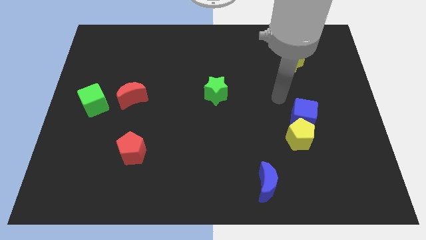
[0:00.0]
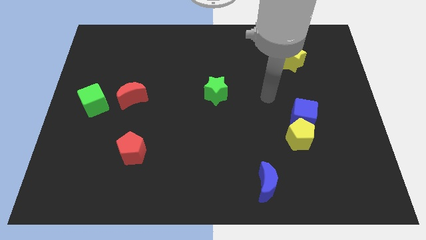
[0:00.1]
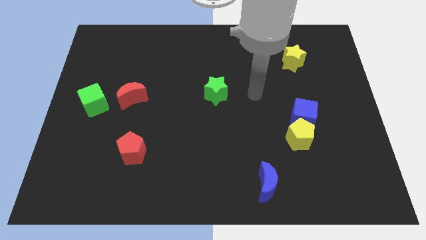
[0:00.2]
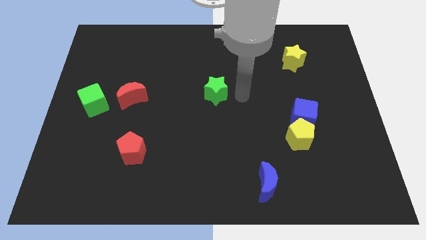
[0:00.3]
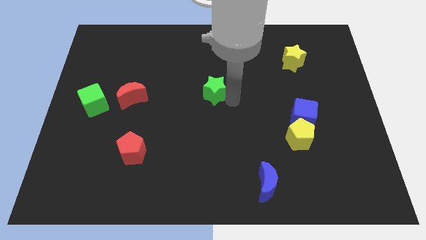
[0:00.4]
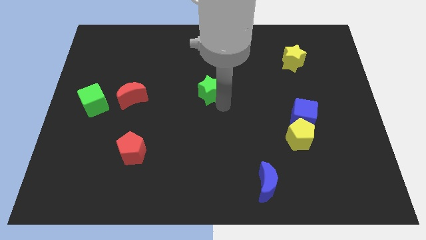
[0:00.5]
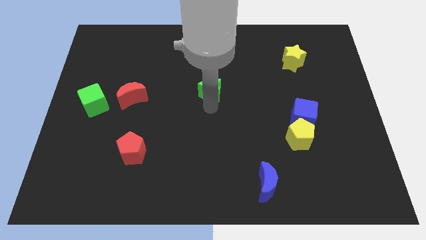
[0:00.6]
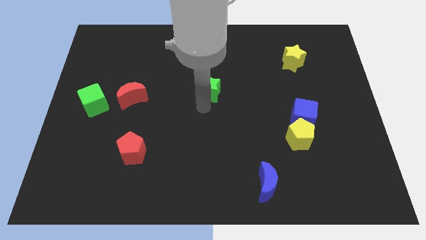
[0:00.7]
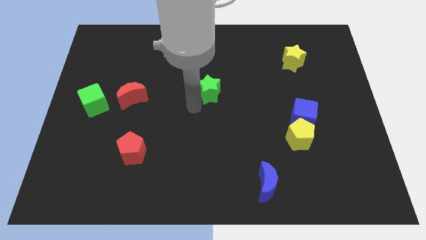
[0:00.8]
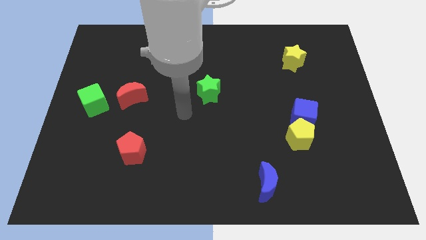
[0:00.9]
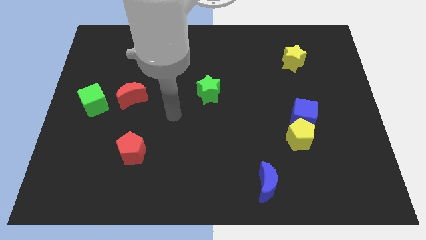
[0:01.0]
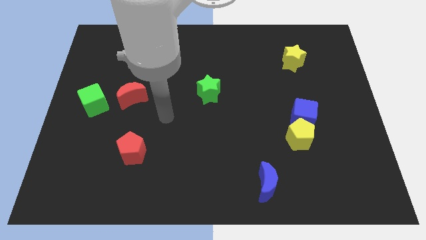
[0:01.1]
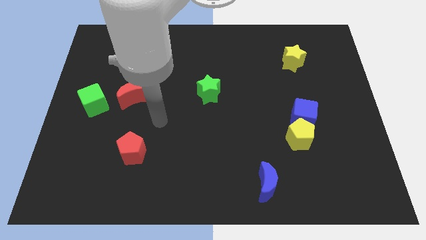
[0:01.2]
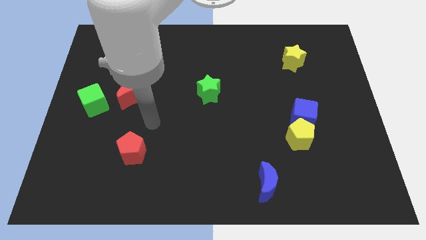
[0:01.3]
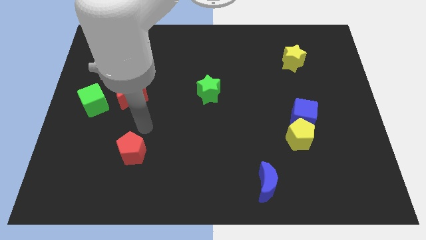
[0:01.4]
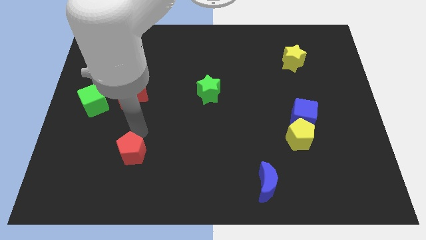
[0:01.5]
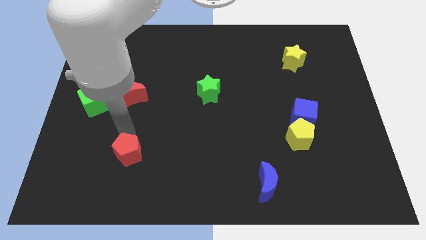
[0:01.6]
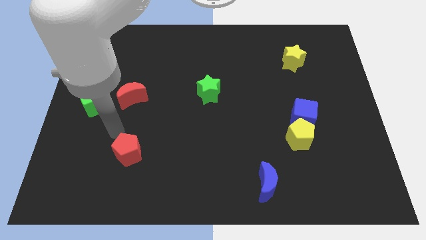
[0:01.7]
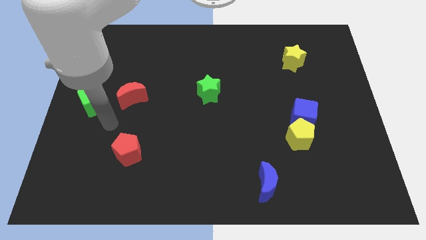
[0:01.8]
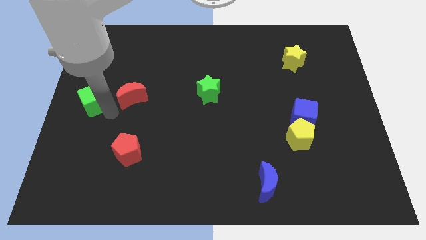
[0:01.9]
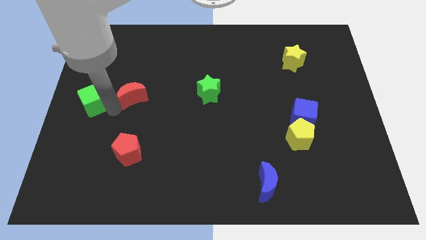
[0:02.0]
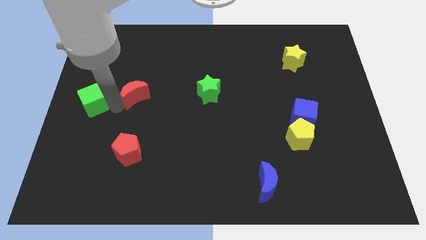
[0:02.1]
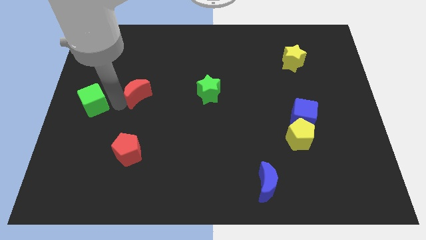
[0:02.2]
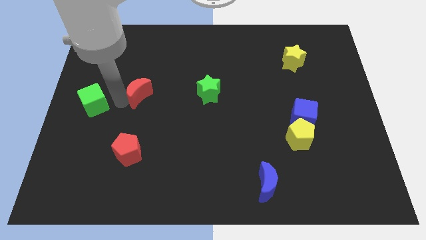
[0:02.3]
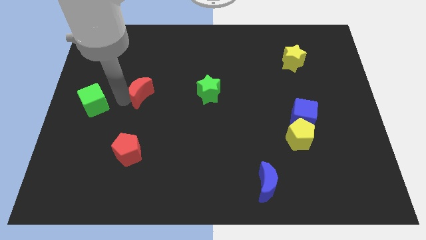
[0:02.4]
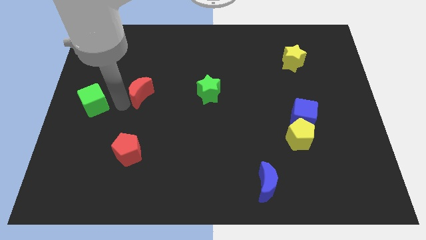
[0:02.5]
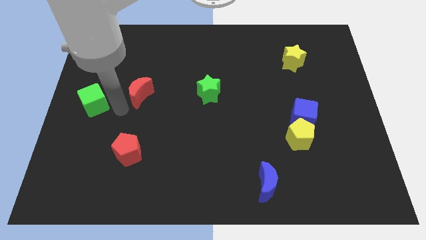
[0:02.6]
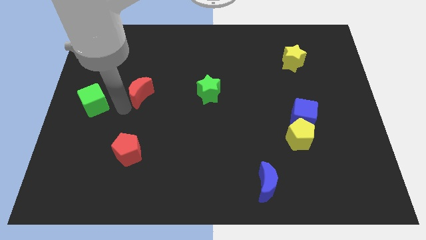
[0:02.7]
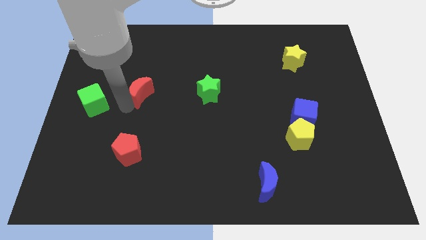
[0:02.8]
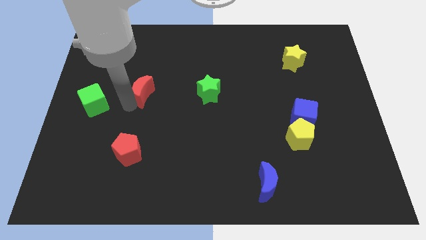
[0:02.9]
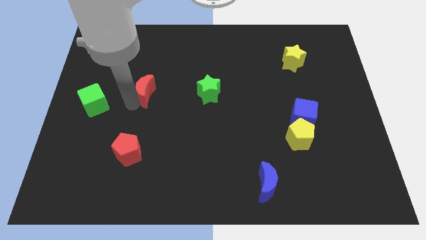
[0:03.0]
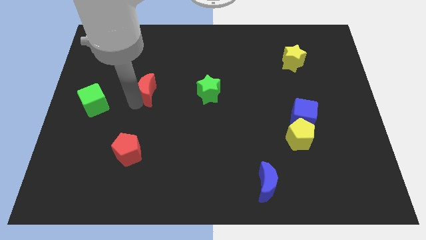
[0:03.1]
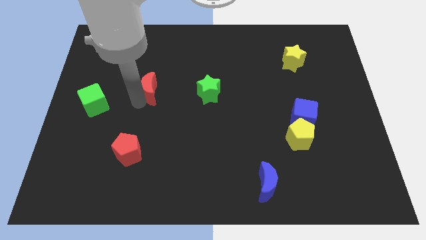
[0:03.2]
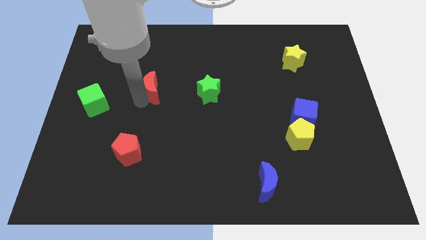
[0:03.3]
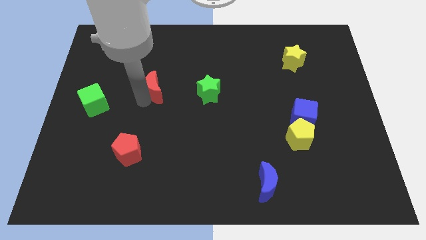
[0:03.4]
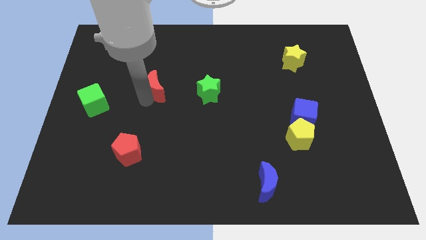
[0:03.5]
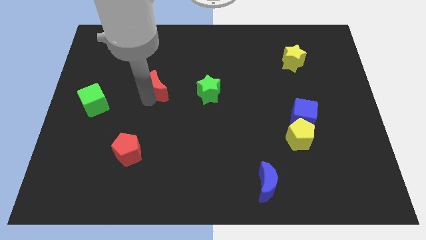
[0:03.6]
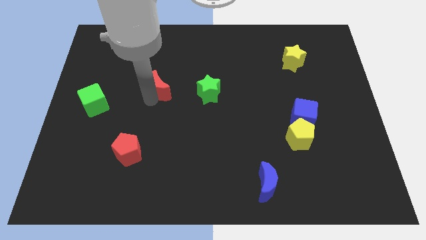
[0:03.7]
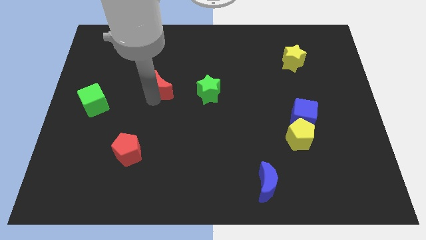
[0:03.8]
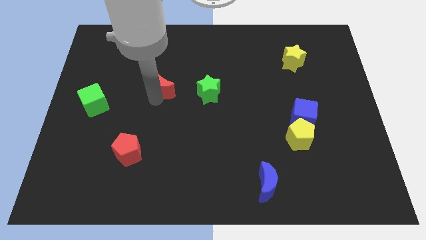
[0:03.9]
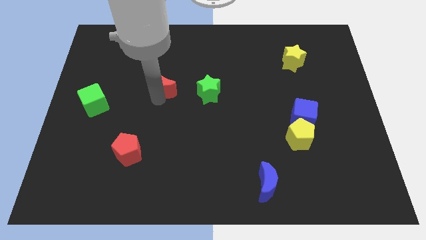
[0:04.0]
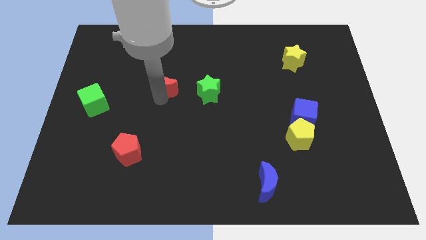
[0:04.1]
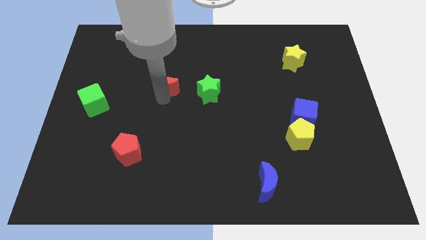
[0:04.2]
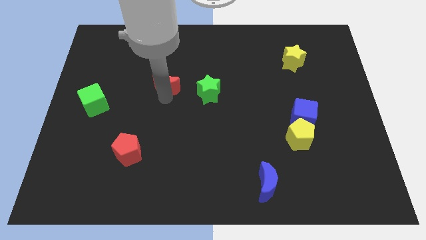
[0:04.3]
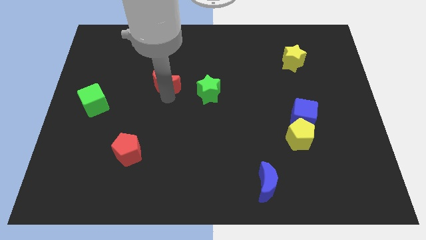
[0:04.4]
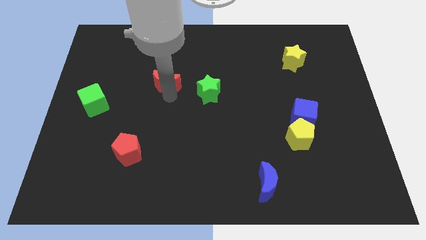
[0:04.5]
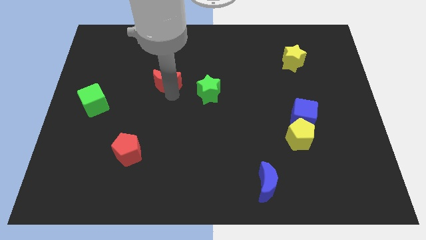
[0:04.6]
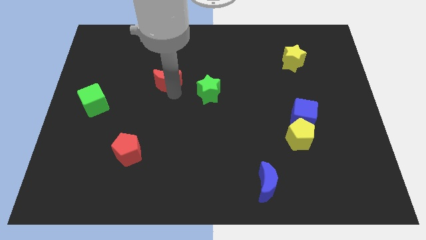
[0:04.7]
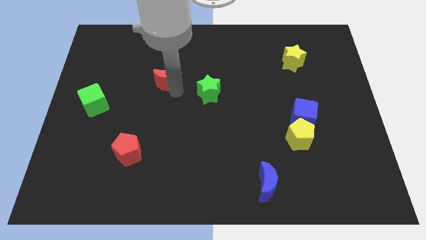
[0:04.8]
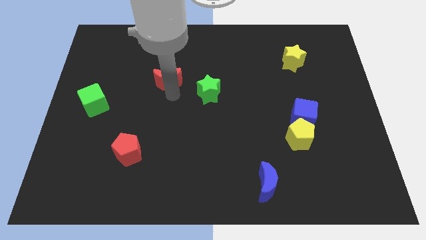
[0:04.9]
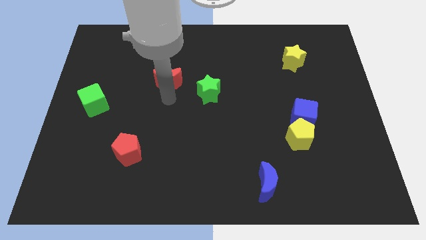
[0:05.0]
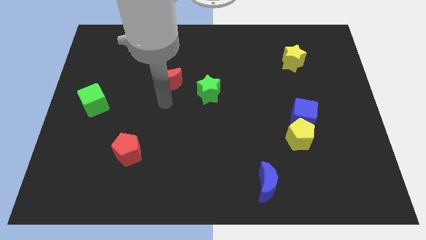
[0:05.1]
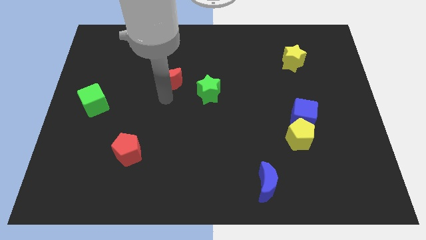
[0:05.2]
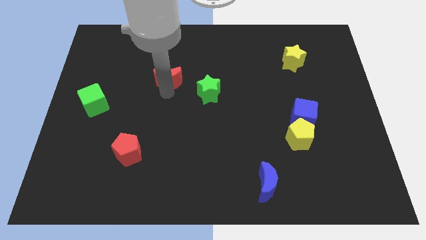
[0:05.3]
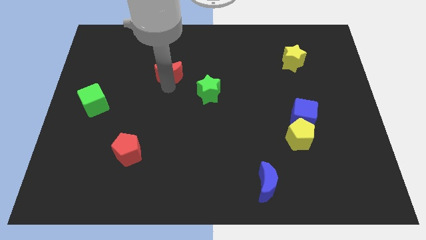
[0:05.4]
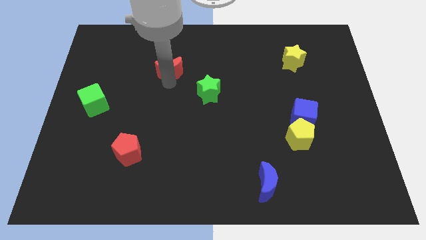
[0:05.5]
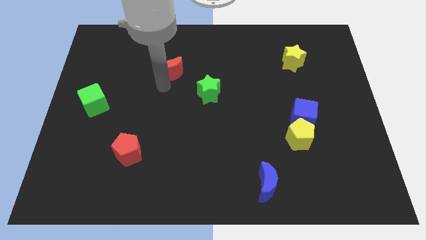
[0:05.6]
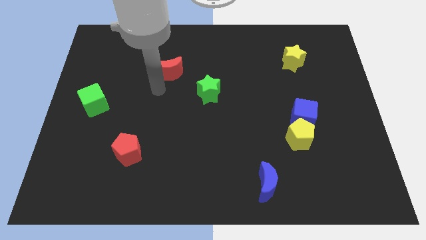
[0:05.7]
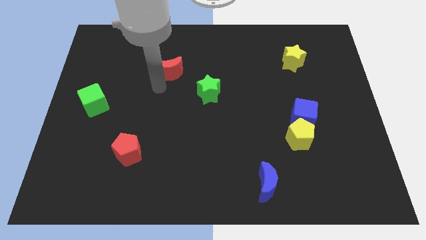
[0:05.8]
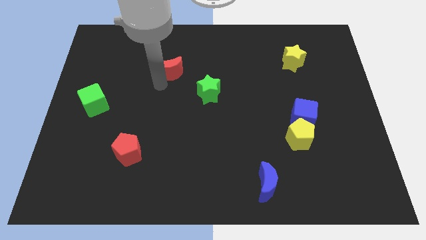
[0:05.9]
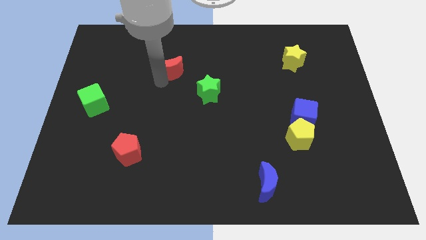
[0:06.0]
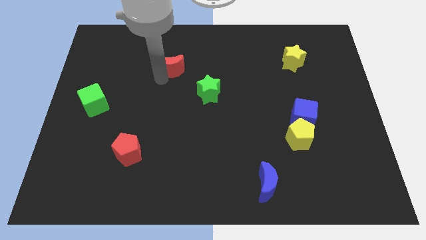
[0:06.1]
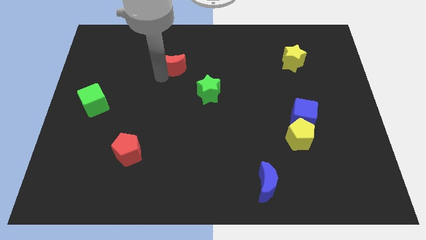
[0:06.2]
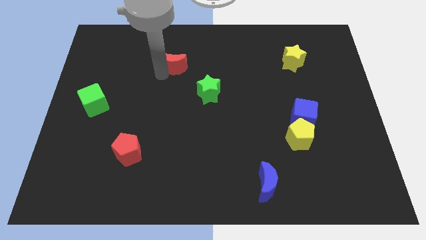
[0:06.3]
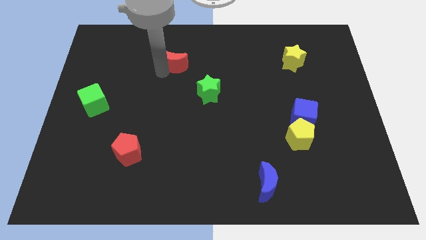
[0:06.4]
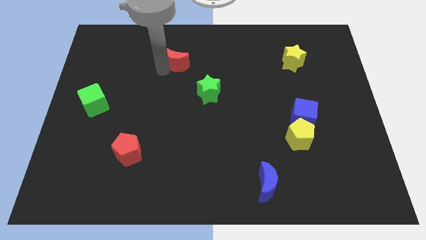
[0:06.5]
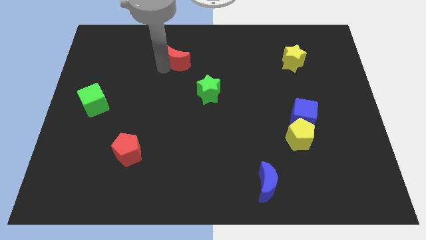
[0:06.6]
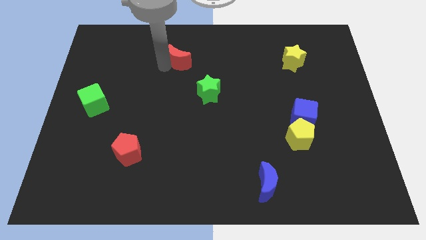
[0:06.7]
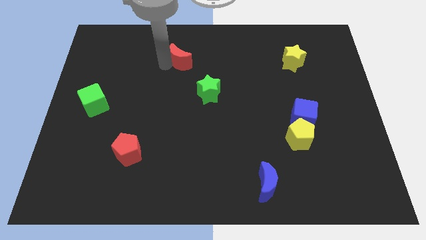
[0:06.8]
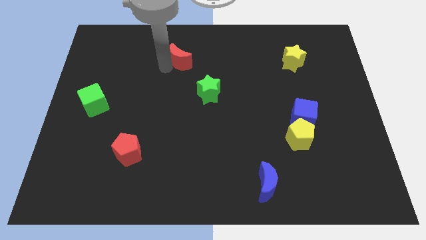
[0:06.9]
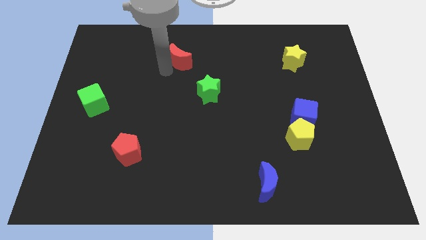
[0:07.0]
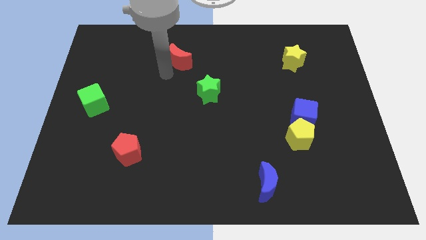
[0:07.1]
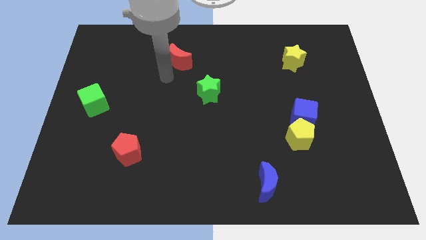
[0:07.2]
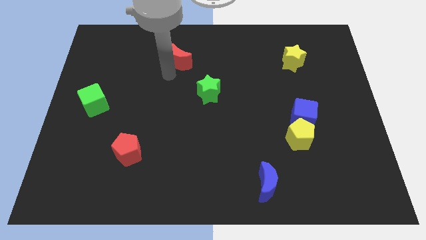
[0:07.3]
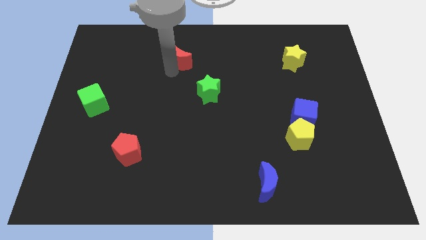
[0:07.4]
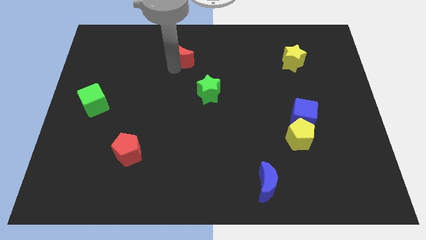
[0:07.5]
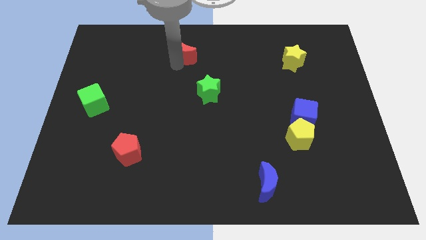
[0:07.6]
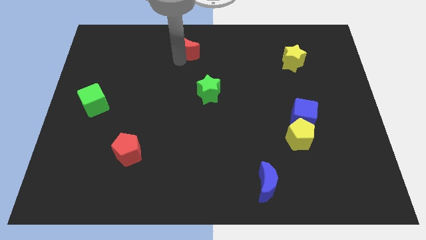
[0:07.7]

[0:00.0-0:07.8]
slide the red moon to the top
